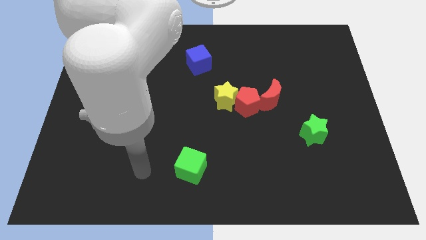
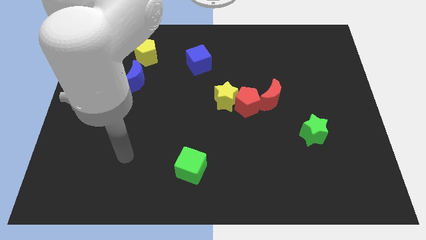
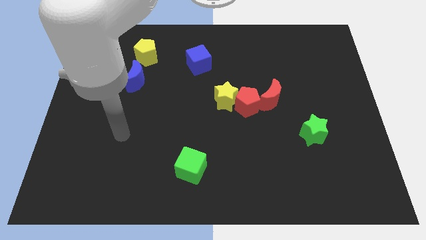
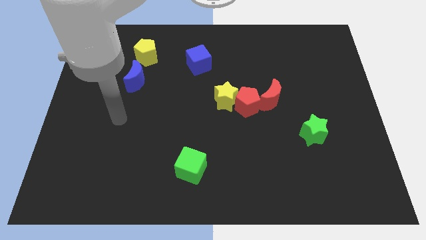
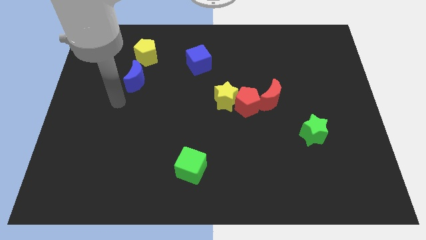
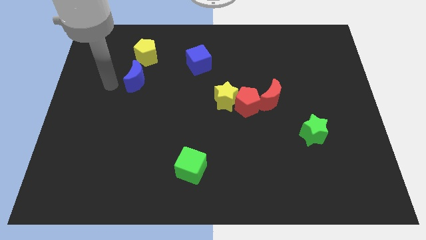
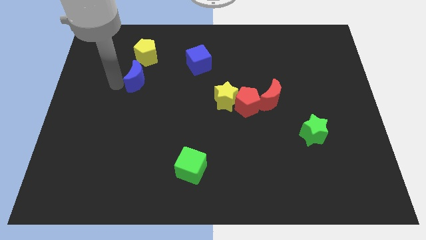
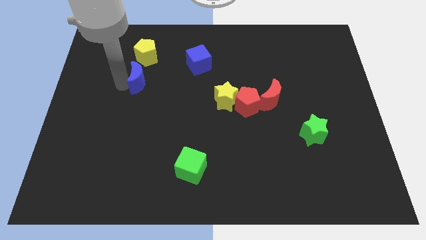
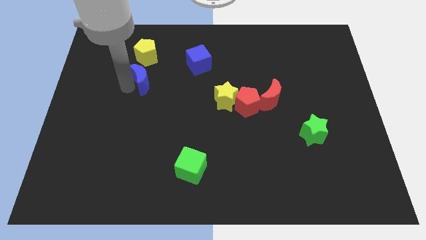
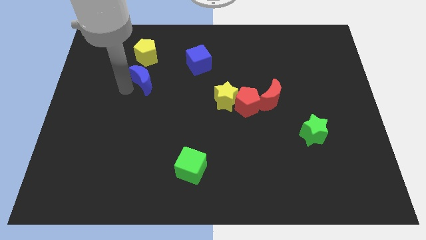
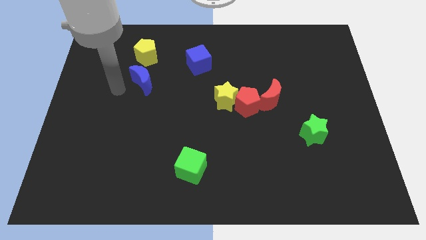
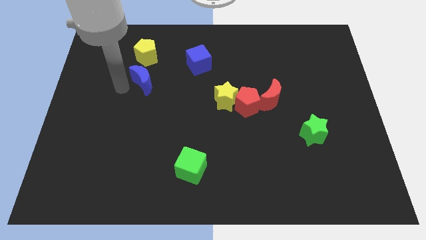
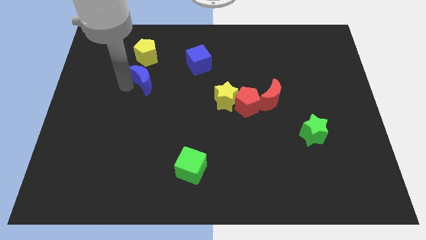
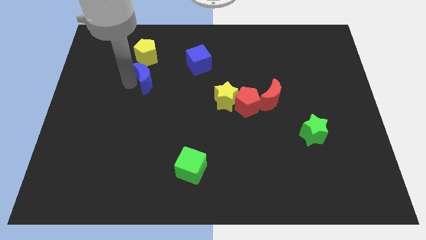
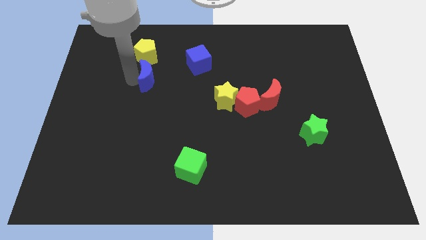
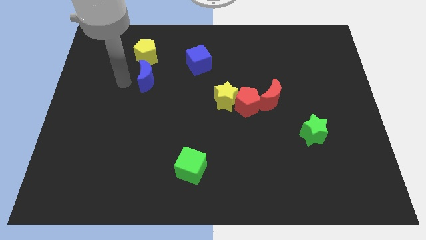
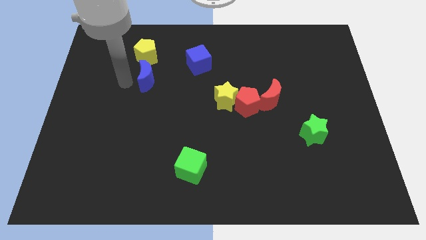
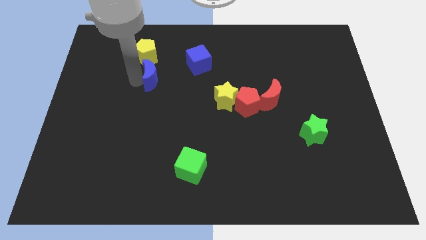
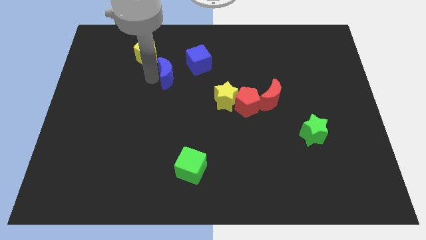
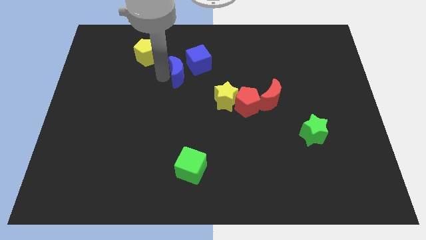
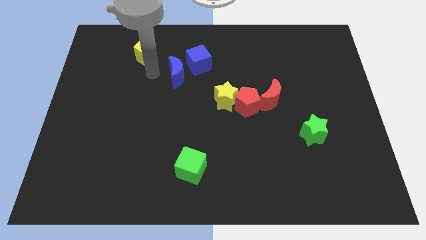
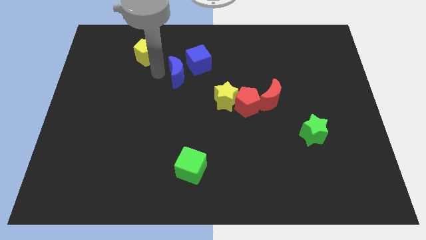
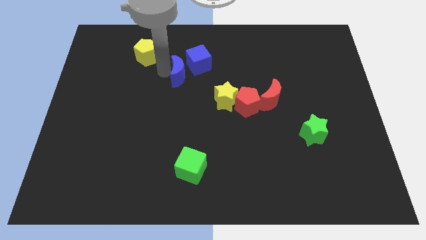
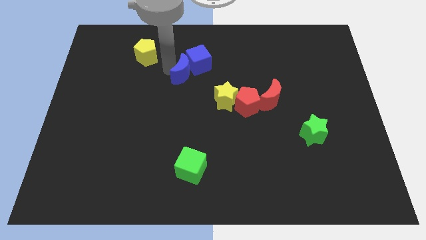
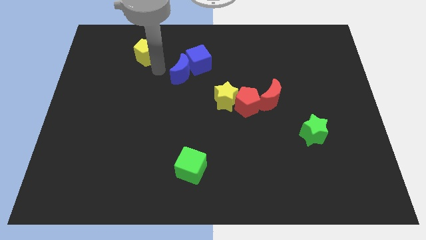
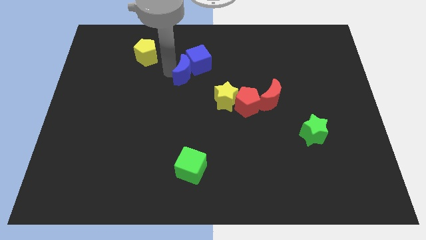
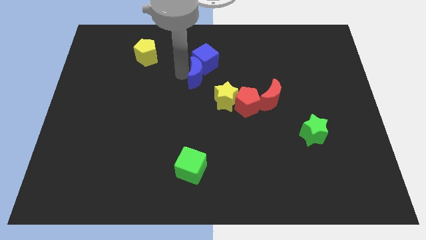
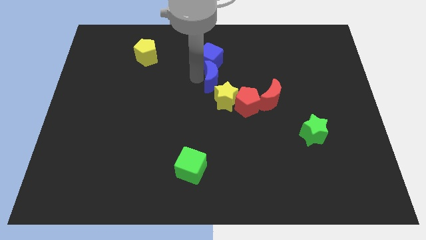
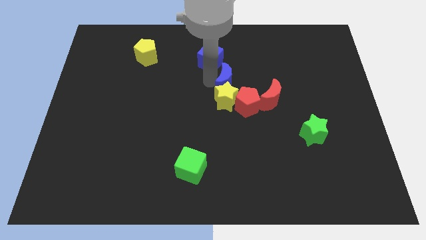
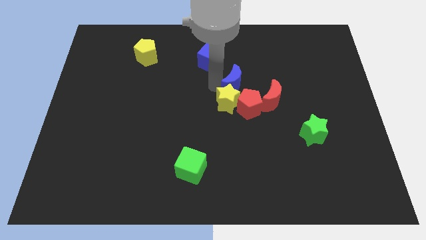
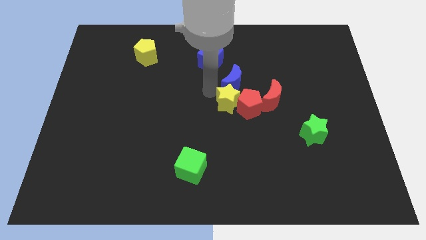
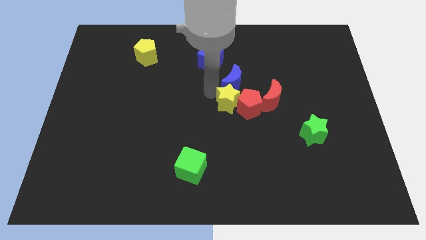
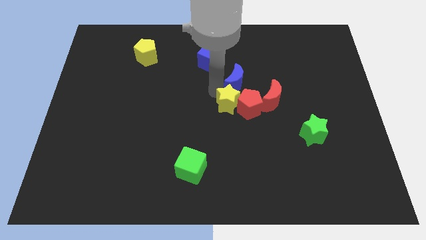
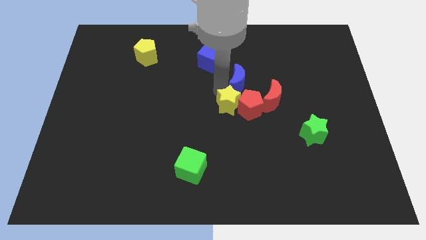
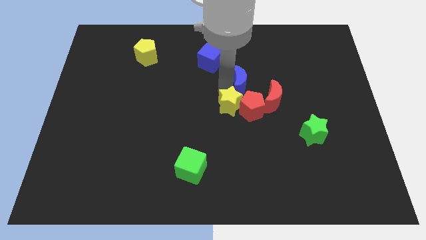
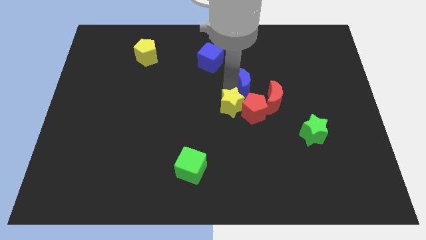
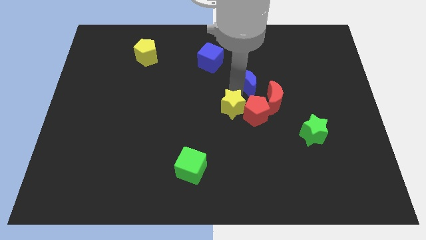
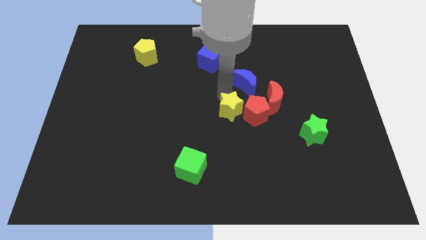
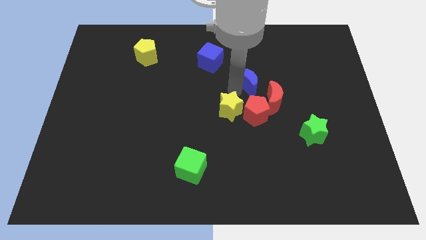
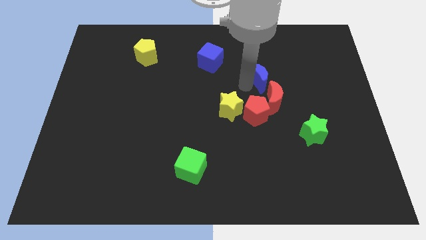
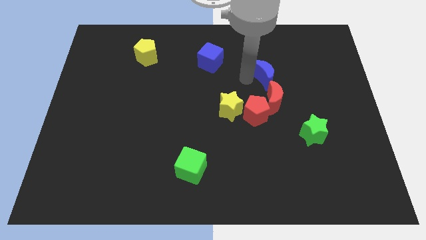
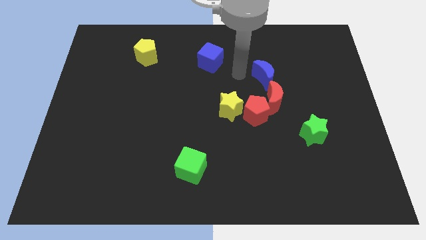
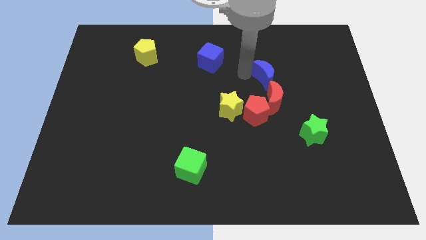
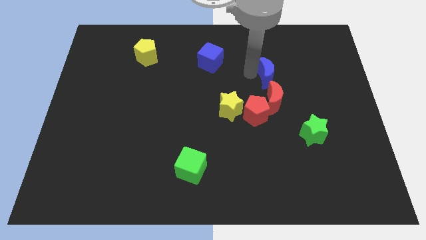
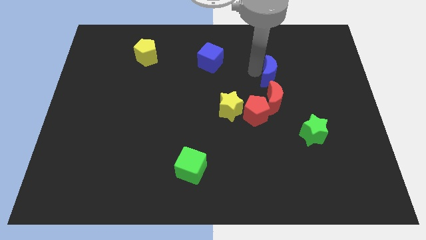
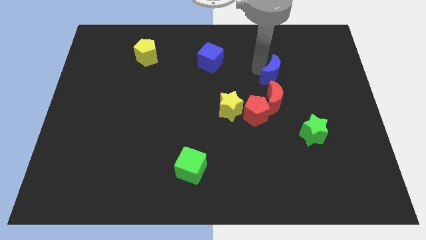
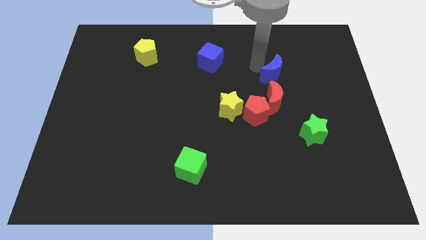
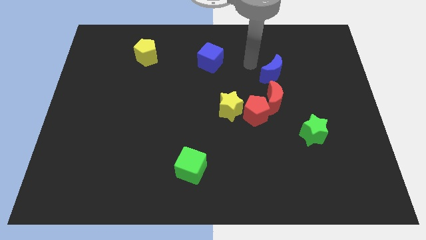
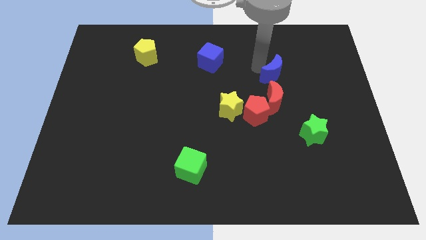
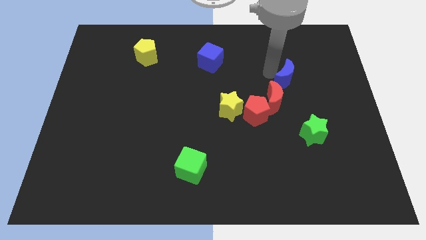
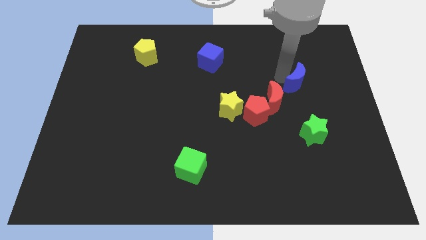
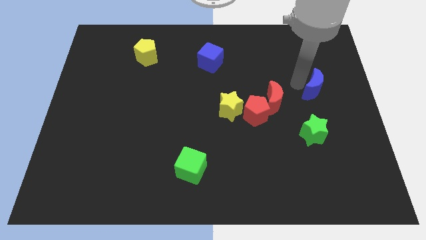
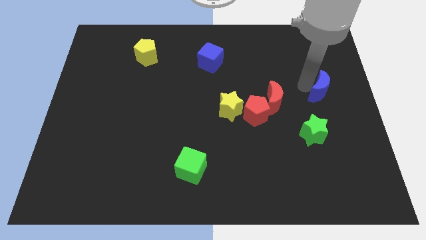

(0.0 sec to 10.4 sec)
move the blue moon to the right side of the board

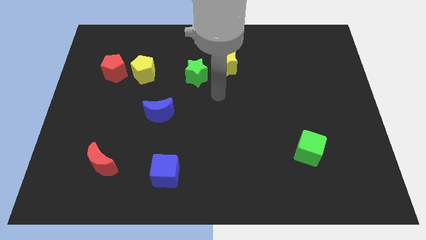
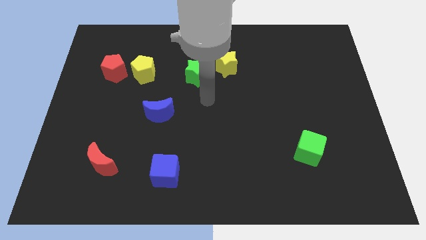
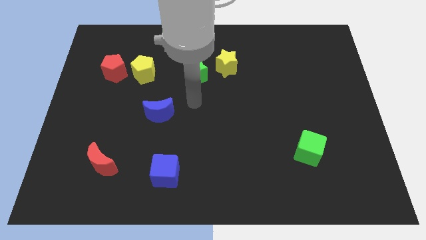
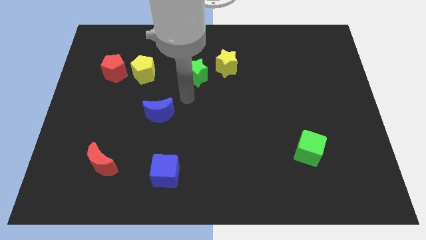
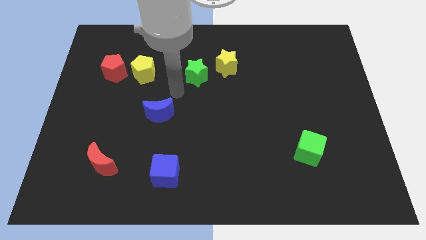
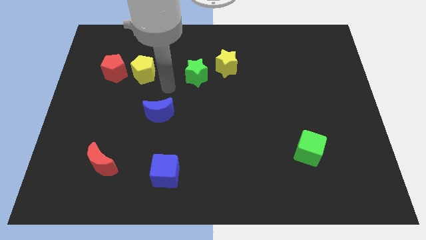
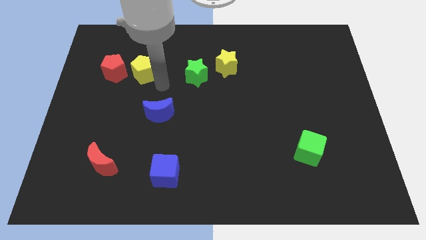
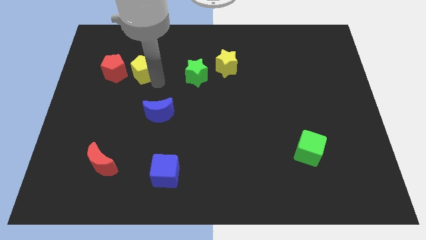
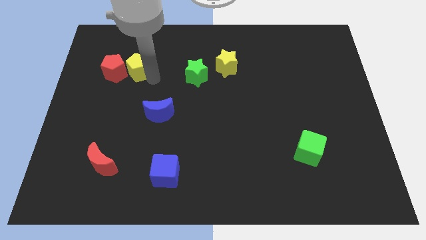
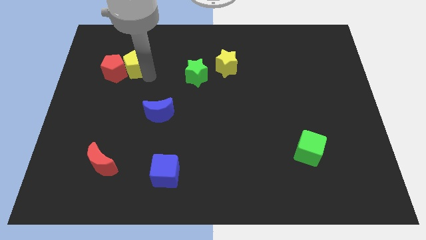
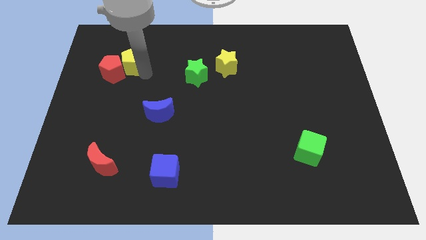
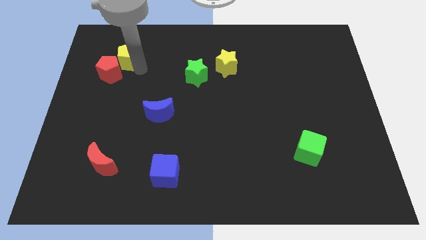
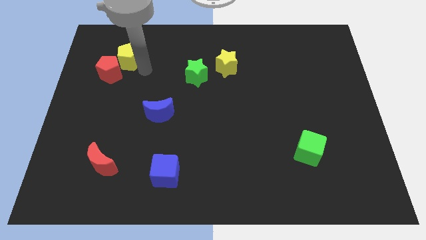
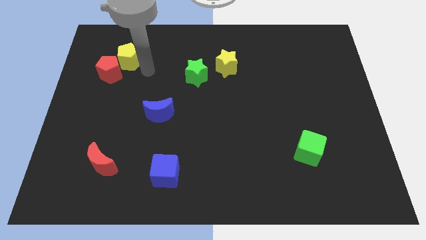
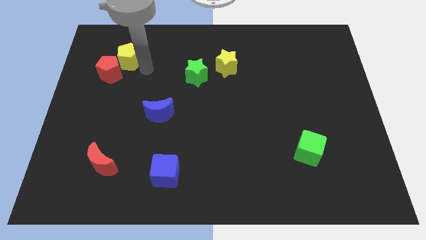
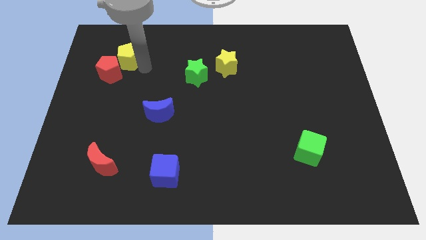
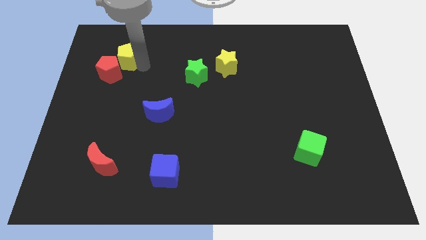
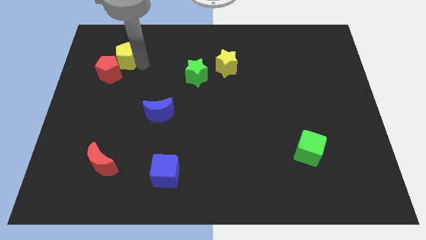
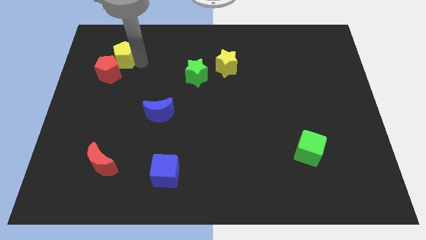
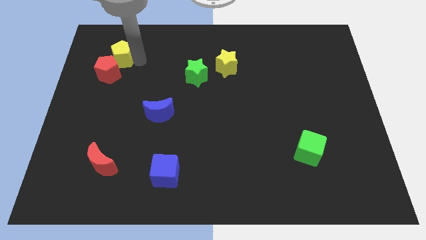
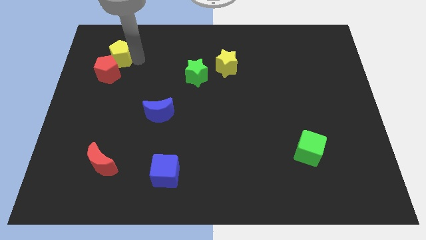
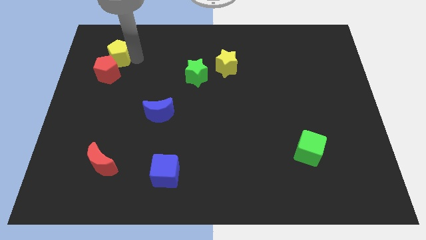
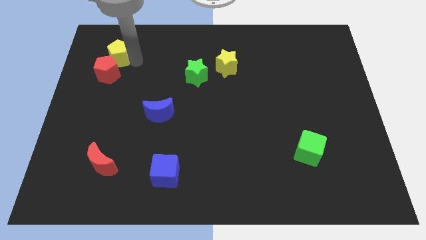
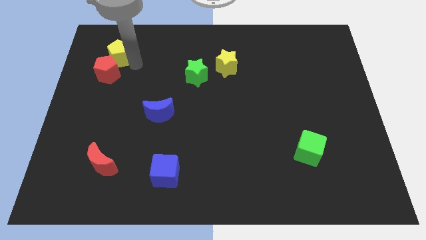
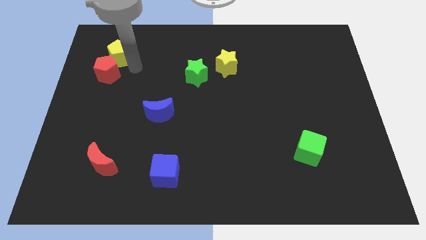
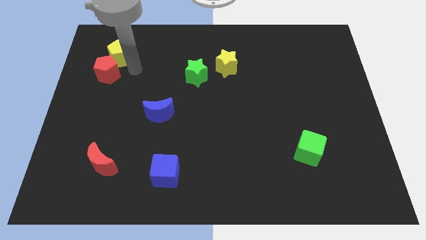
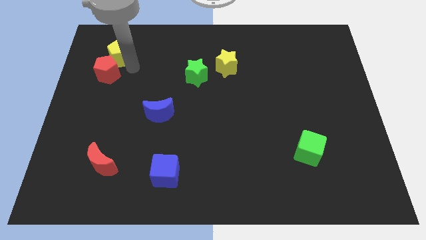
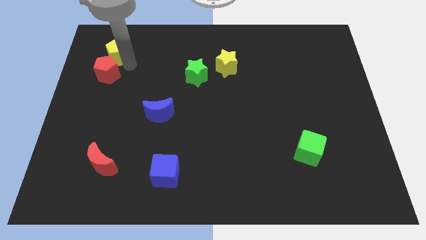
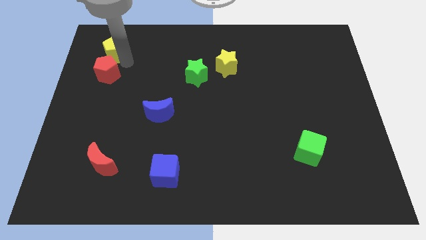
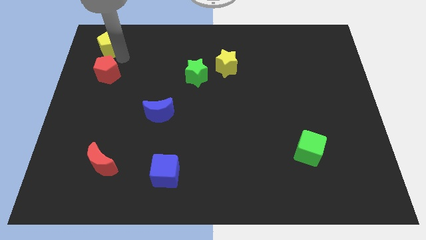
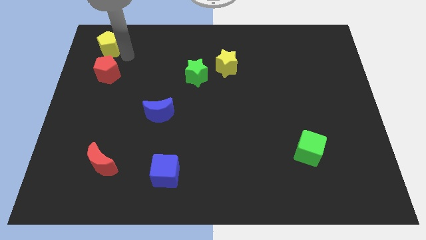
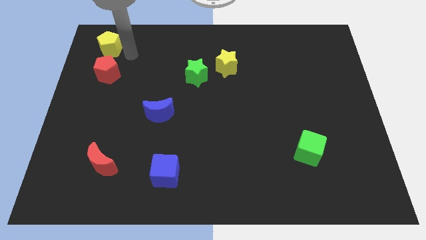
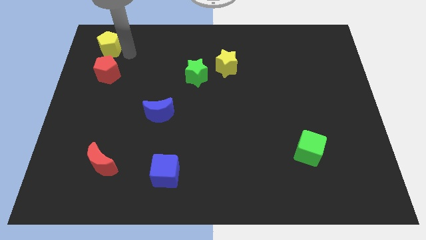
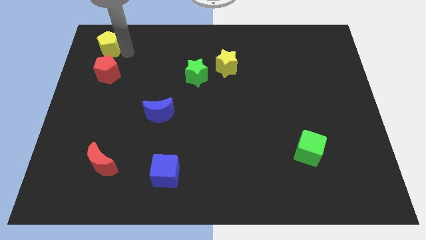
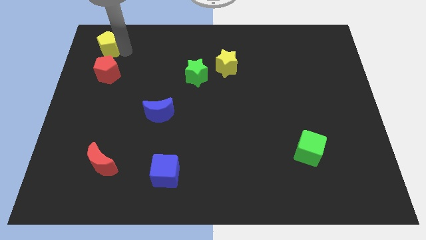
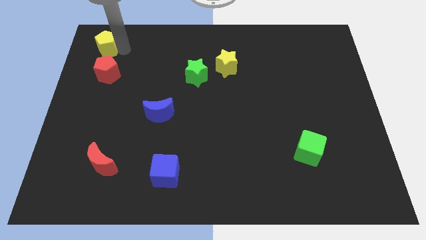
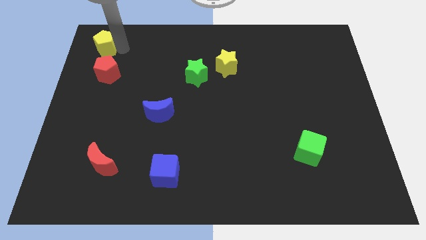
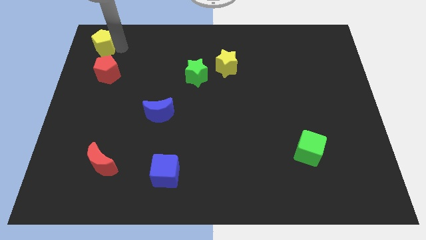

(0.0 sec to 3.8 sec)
put the yellow pentagon to the upper left corner
